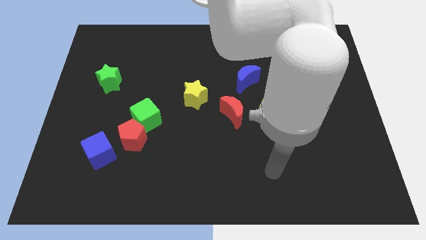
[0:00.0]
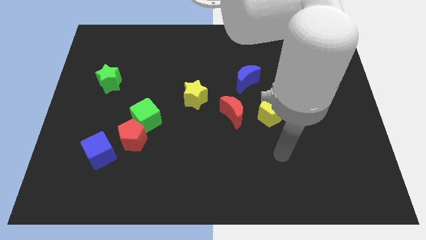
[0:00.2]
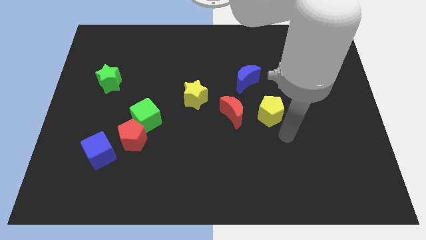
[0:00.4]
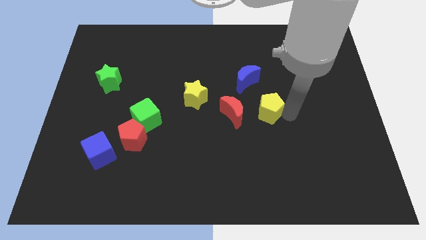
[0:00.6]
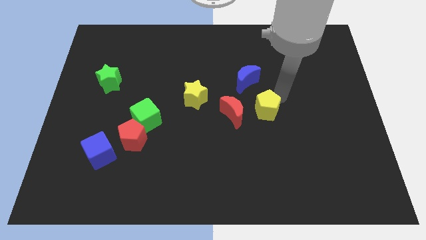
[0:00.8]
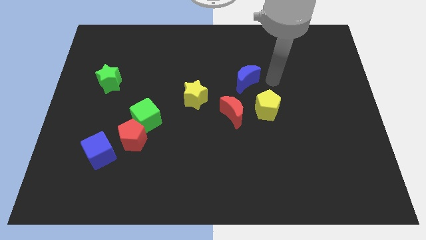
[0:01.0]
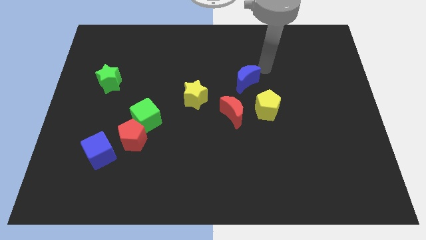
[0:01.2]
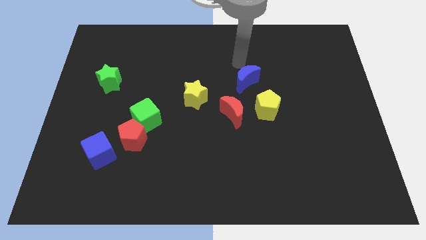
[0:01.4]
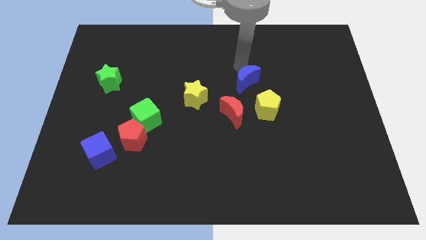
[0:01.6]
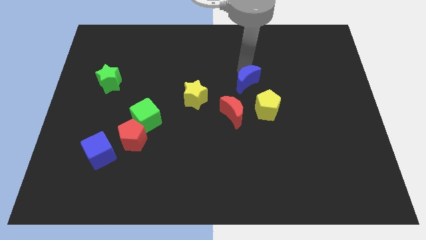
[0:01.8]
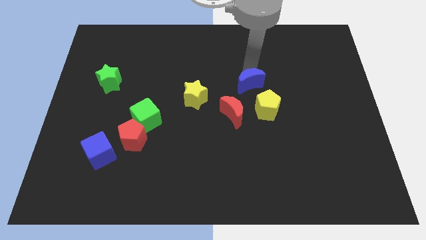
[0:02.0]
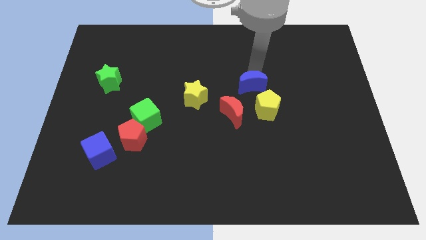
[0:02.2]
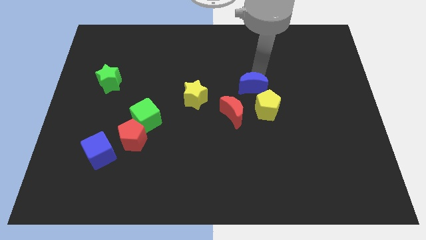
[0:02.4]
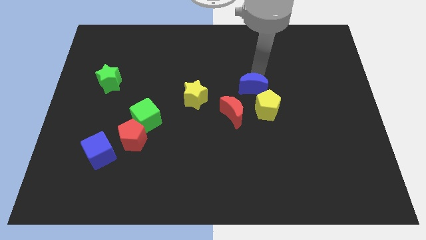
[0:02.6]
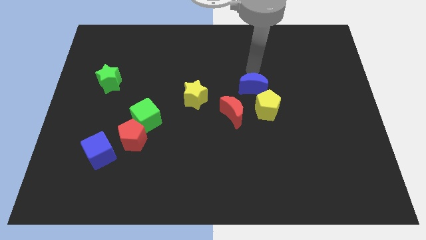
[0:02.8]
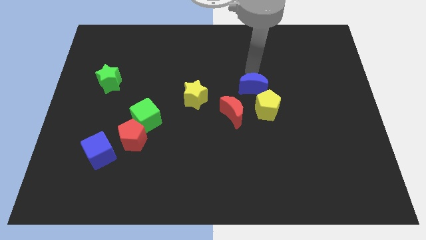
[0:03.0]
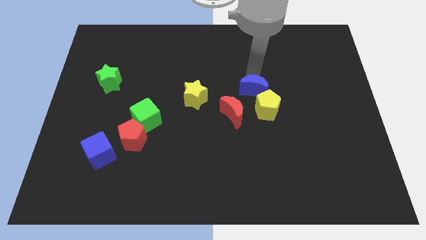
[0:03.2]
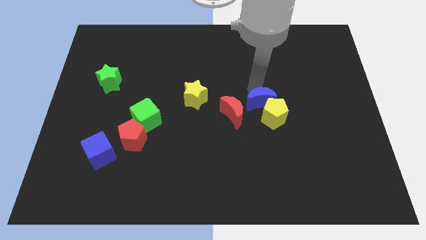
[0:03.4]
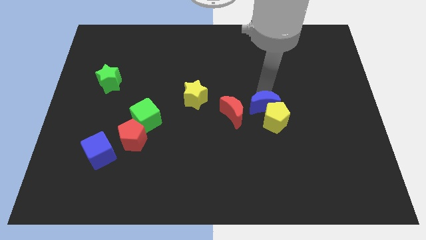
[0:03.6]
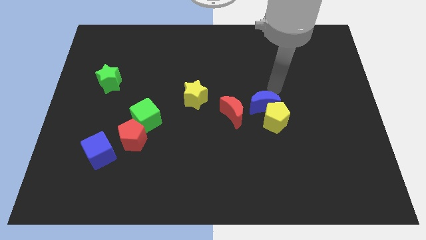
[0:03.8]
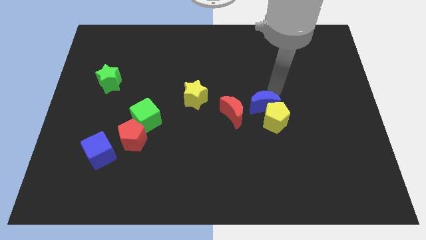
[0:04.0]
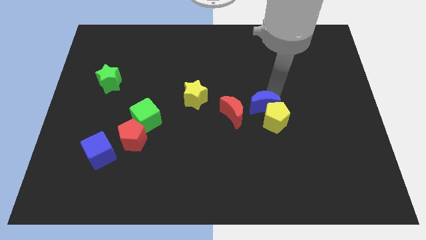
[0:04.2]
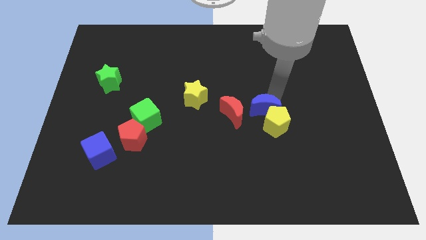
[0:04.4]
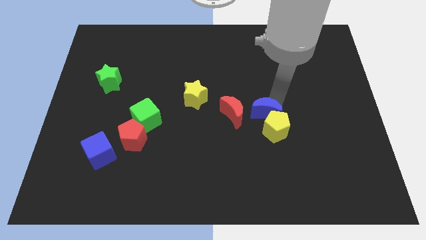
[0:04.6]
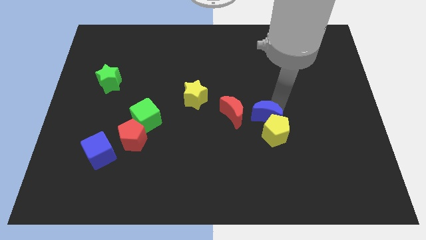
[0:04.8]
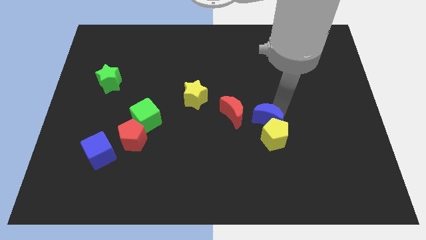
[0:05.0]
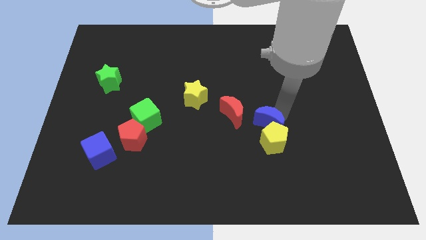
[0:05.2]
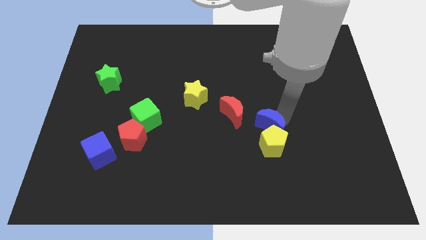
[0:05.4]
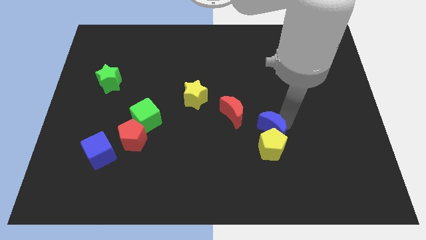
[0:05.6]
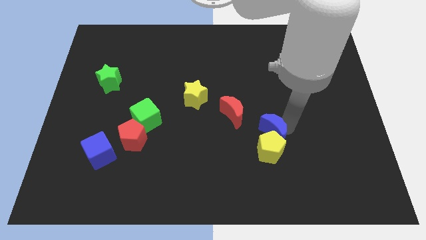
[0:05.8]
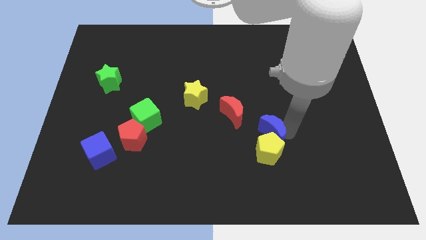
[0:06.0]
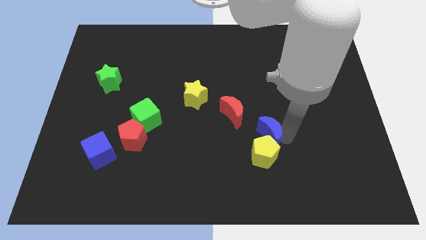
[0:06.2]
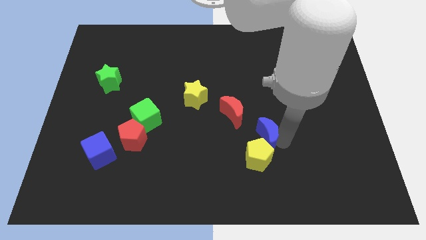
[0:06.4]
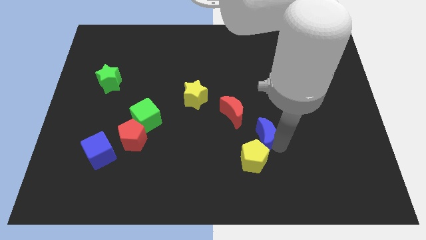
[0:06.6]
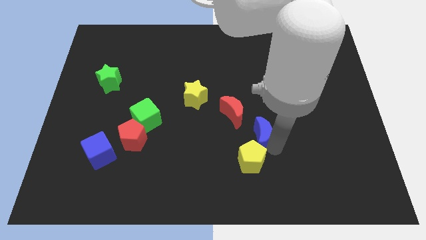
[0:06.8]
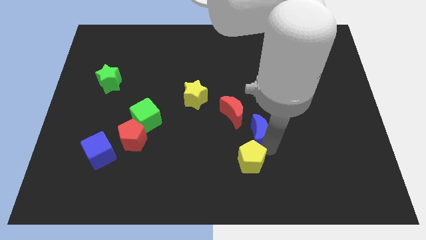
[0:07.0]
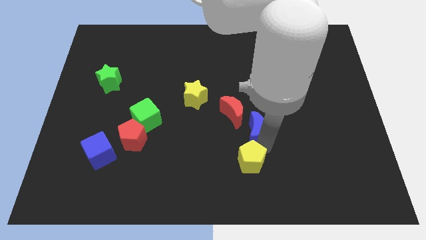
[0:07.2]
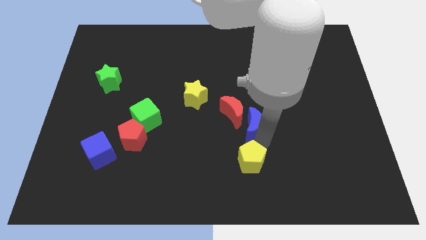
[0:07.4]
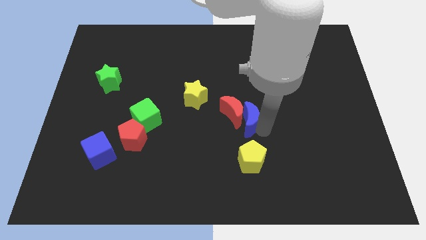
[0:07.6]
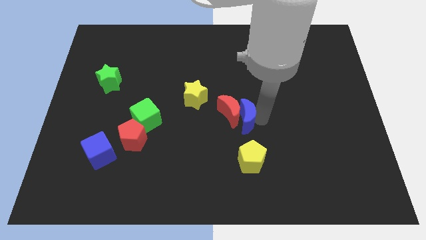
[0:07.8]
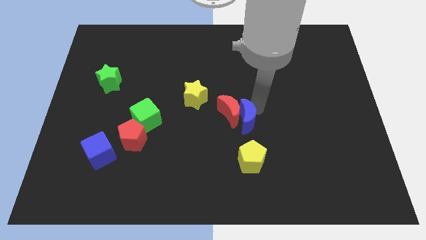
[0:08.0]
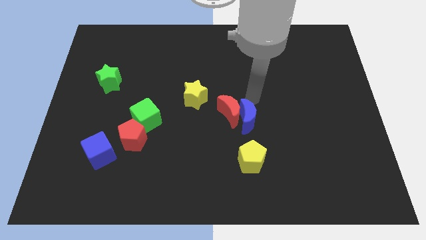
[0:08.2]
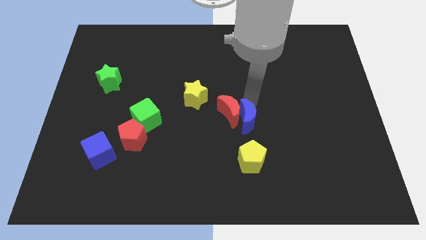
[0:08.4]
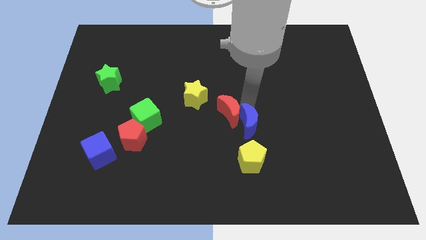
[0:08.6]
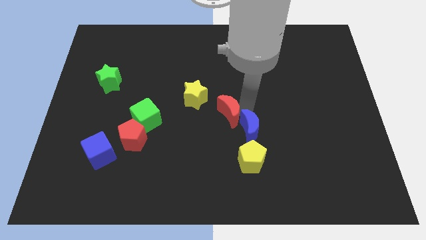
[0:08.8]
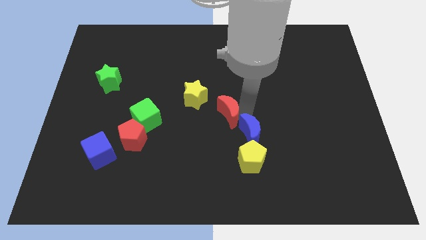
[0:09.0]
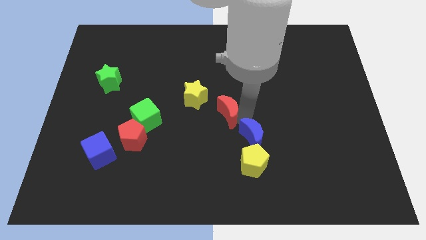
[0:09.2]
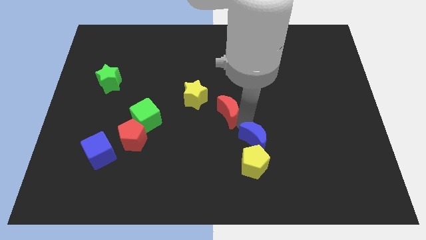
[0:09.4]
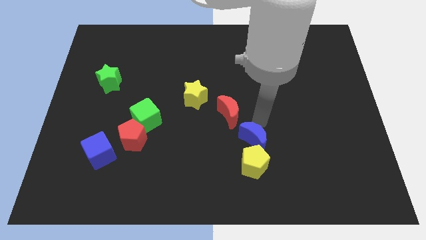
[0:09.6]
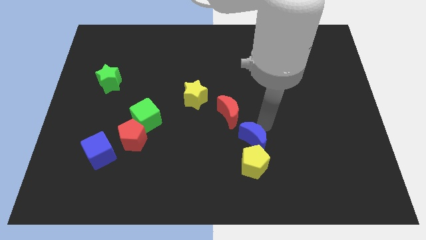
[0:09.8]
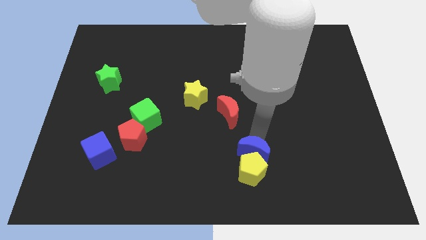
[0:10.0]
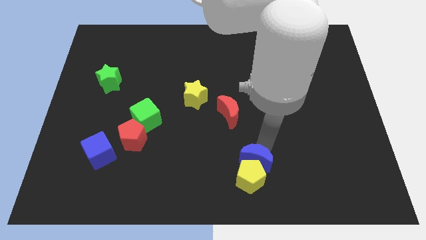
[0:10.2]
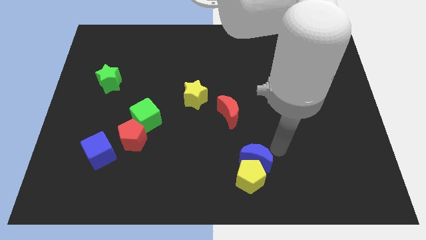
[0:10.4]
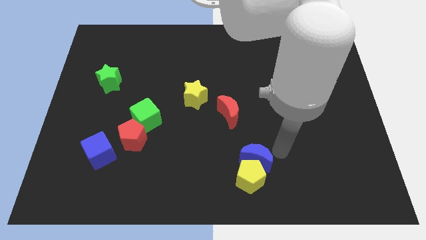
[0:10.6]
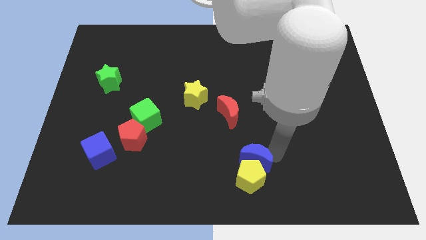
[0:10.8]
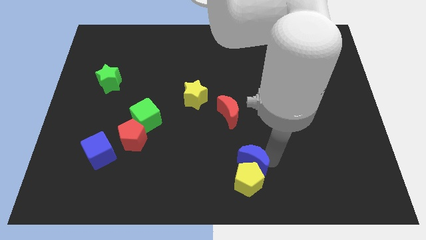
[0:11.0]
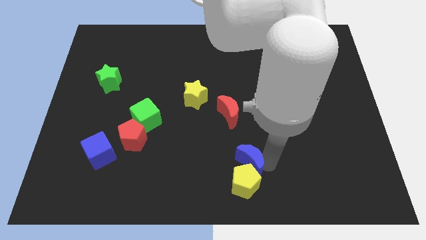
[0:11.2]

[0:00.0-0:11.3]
slide the blue moon to the bottom side

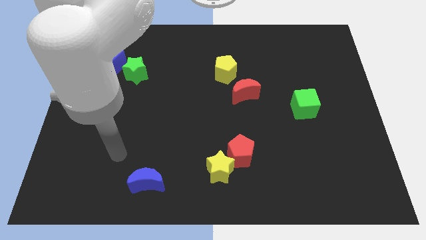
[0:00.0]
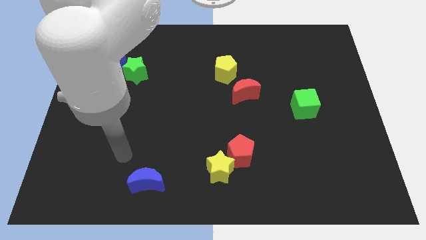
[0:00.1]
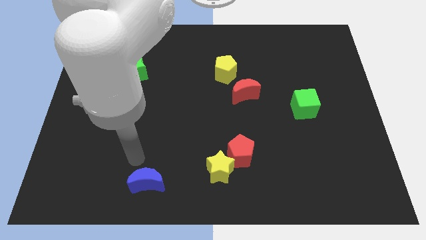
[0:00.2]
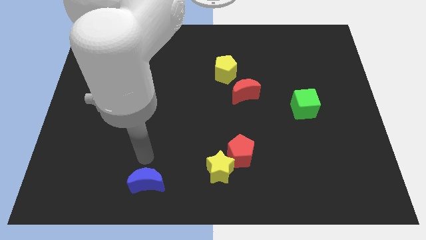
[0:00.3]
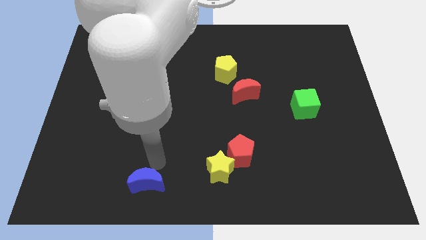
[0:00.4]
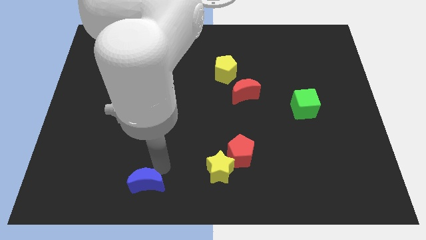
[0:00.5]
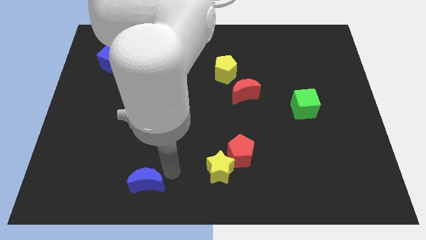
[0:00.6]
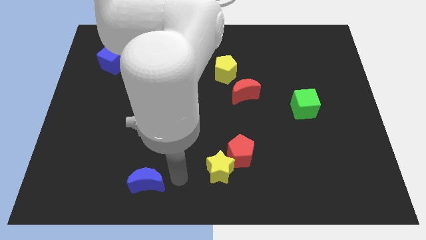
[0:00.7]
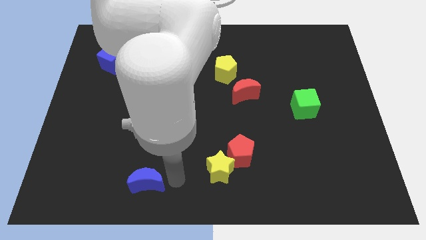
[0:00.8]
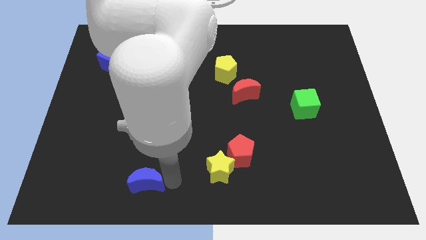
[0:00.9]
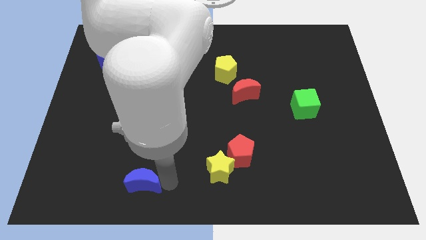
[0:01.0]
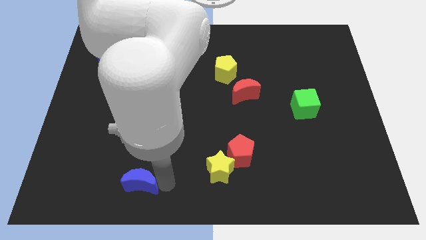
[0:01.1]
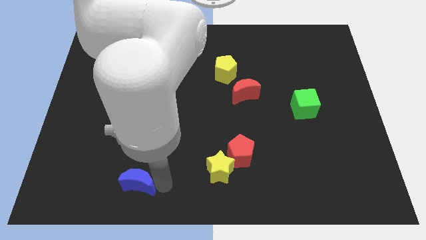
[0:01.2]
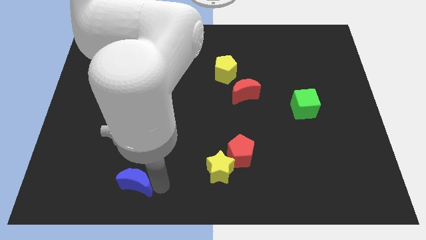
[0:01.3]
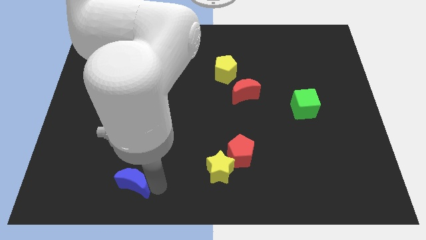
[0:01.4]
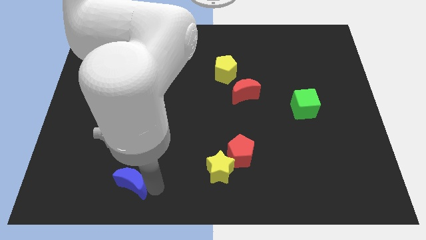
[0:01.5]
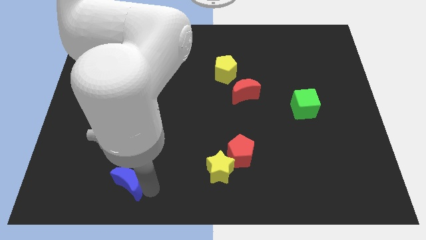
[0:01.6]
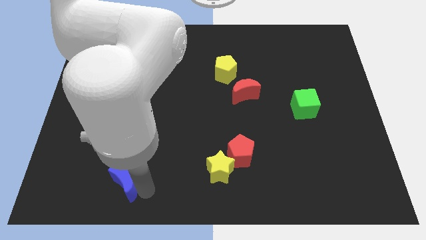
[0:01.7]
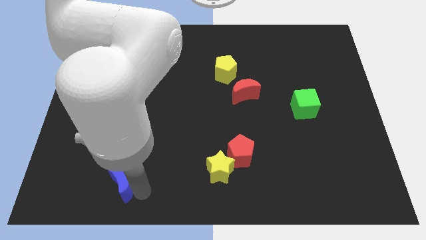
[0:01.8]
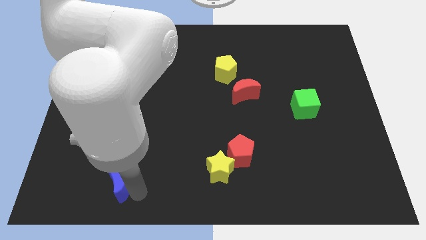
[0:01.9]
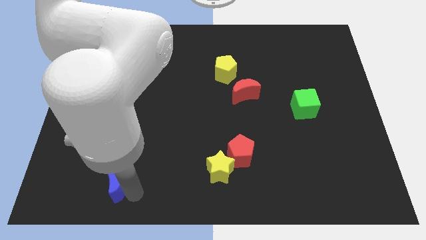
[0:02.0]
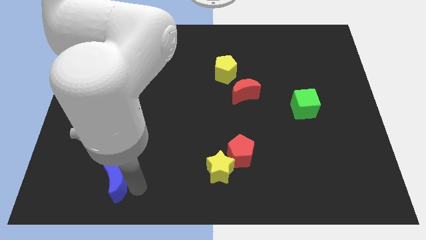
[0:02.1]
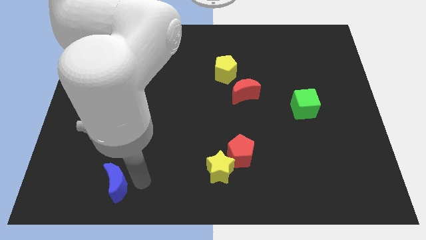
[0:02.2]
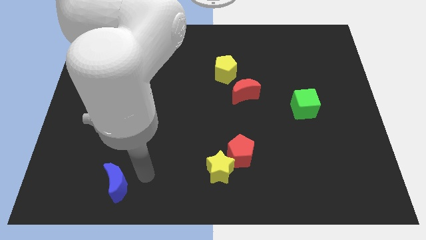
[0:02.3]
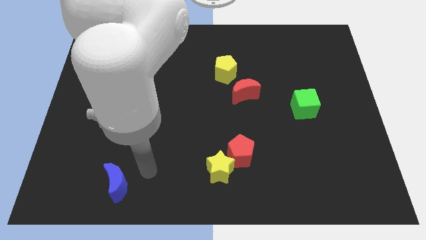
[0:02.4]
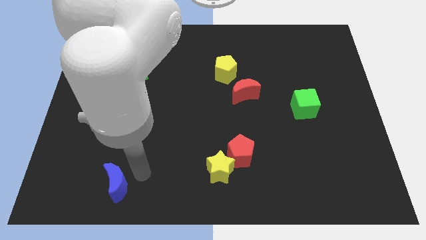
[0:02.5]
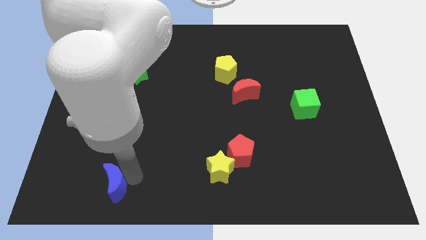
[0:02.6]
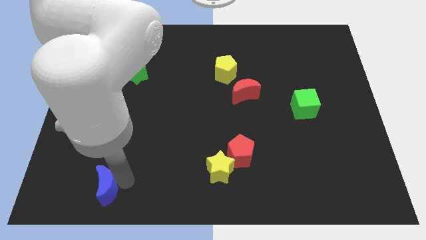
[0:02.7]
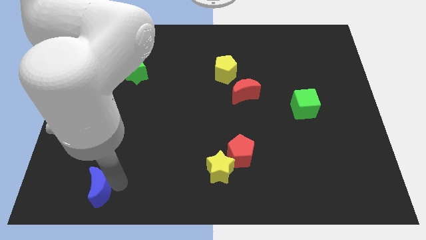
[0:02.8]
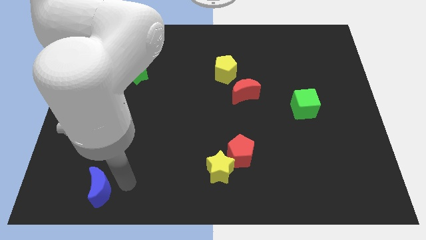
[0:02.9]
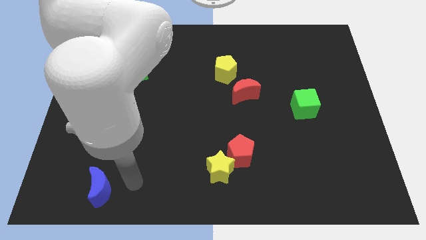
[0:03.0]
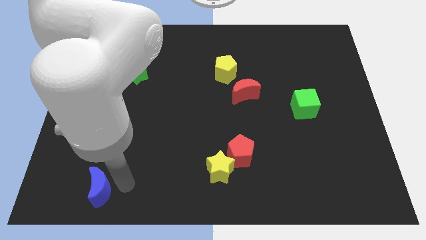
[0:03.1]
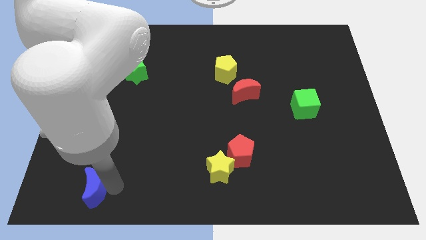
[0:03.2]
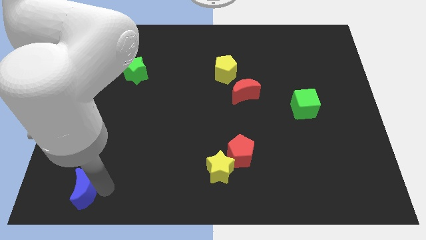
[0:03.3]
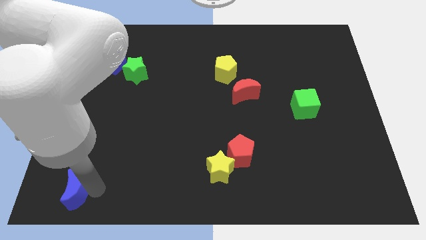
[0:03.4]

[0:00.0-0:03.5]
move the blue moon to the bottom left
